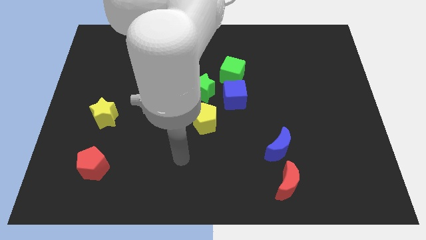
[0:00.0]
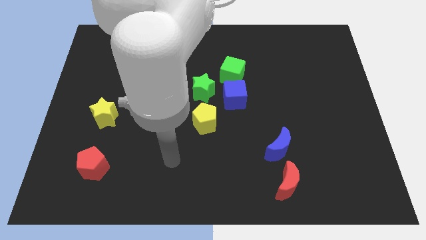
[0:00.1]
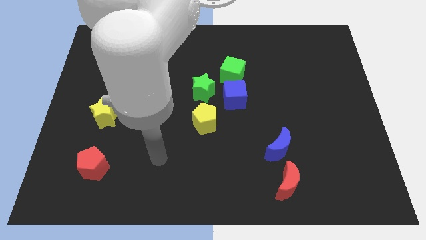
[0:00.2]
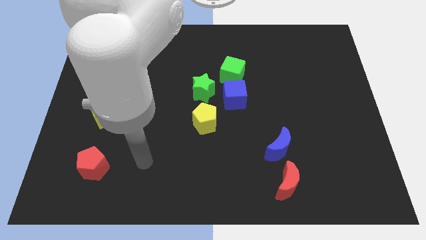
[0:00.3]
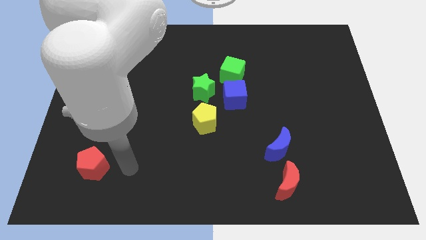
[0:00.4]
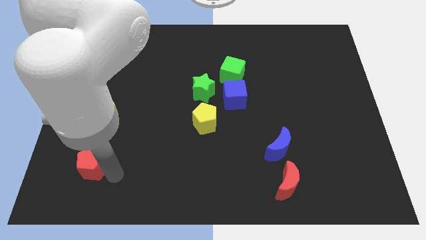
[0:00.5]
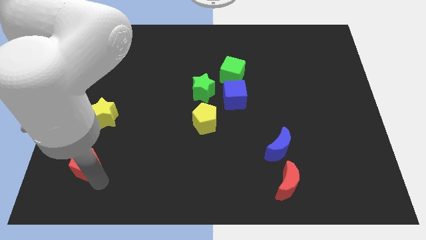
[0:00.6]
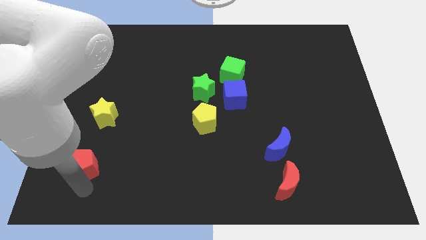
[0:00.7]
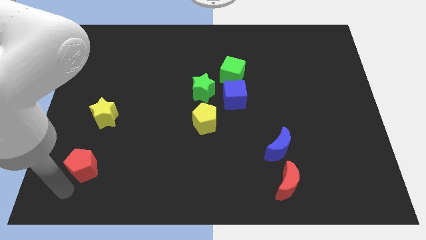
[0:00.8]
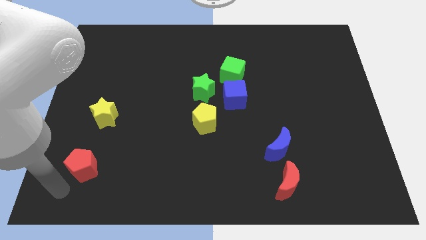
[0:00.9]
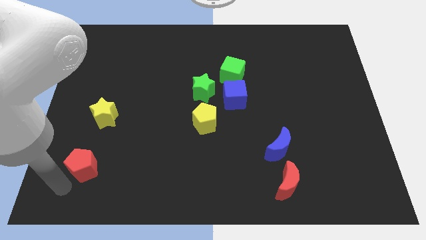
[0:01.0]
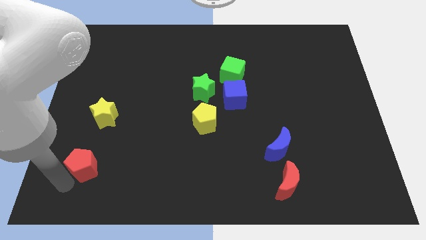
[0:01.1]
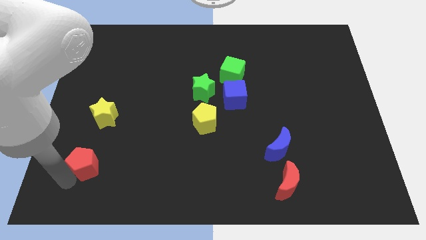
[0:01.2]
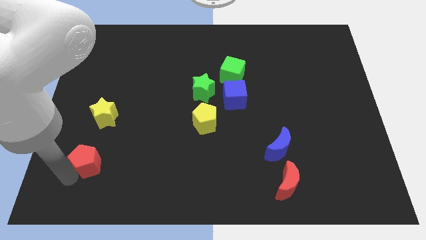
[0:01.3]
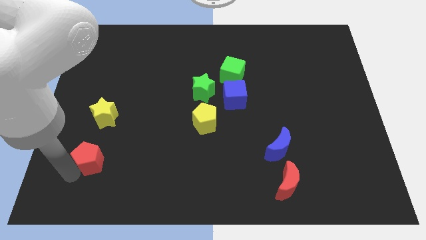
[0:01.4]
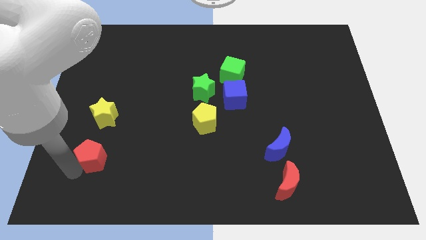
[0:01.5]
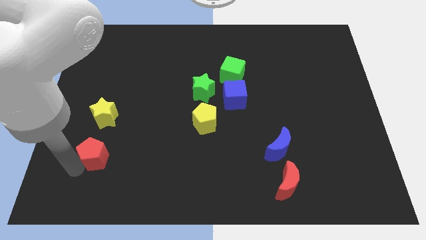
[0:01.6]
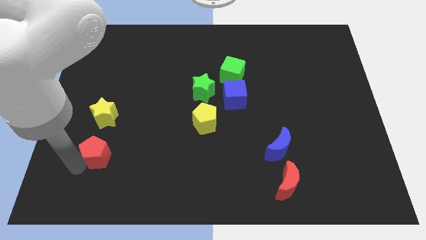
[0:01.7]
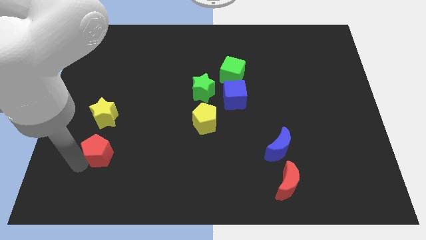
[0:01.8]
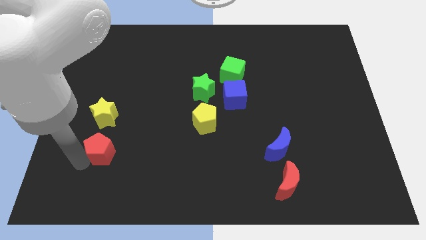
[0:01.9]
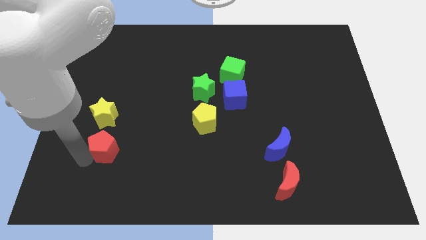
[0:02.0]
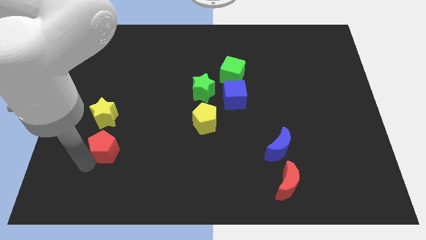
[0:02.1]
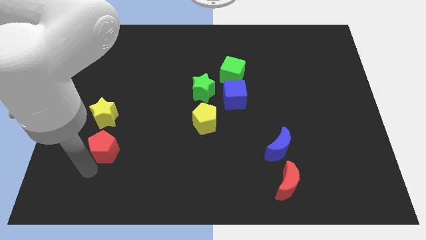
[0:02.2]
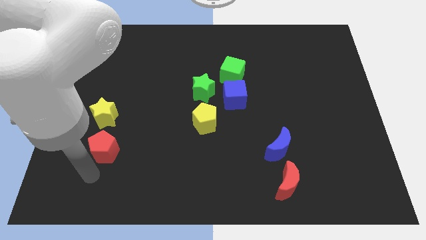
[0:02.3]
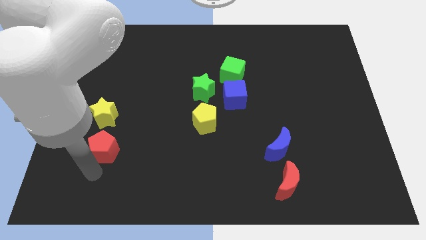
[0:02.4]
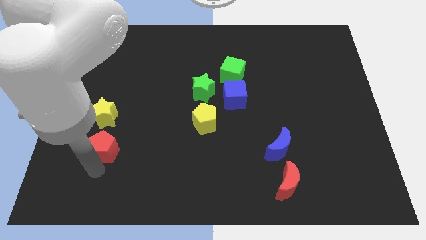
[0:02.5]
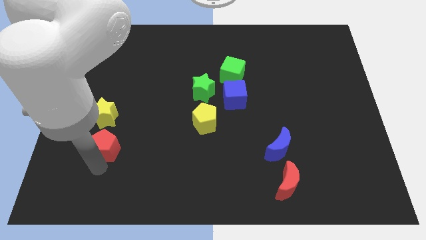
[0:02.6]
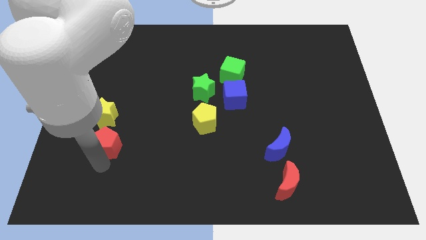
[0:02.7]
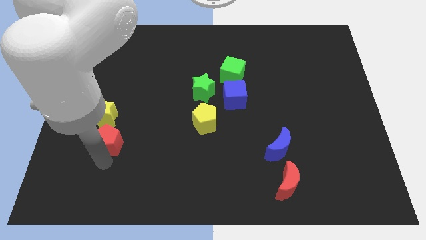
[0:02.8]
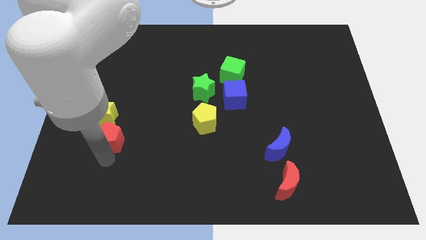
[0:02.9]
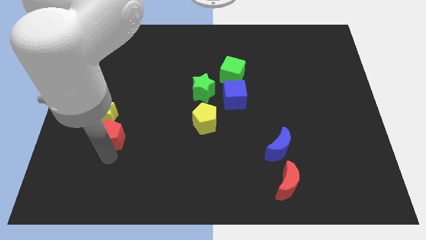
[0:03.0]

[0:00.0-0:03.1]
push the red pentagon up a little

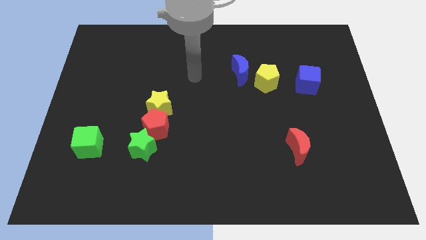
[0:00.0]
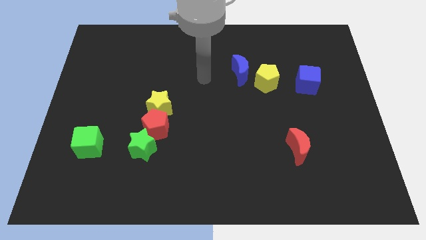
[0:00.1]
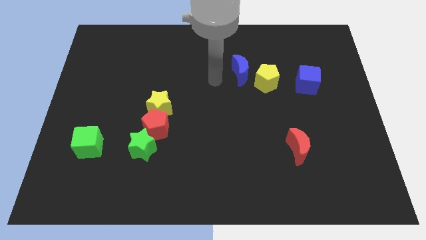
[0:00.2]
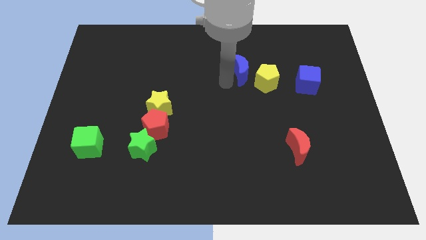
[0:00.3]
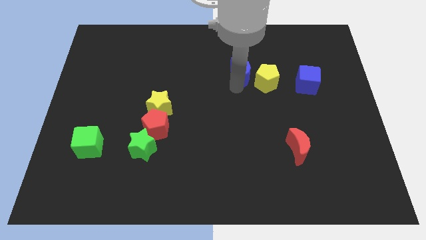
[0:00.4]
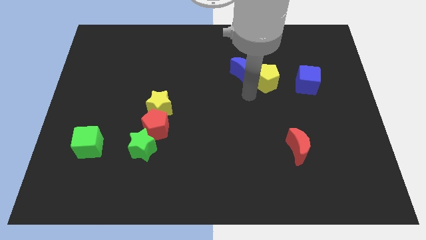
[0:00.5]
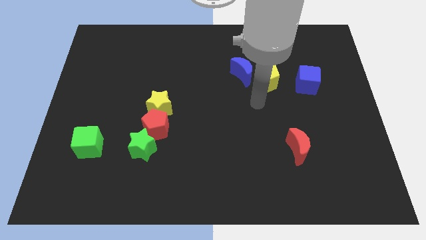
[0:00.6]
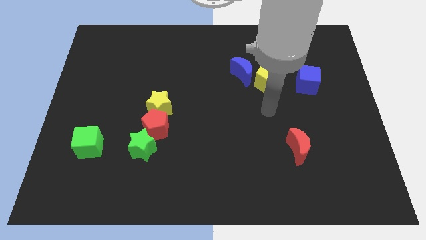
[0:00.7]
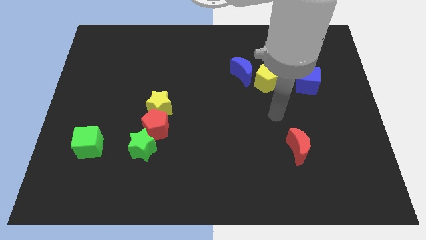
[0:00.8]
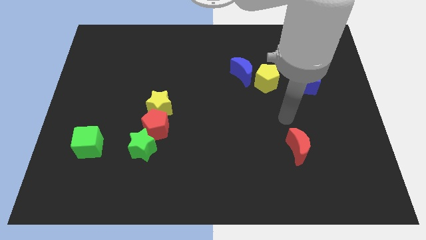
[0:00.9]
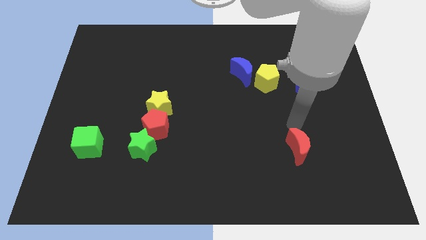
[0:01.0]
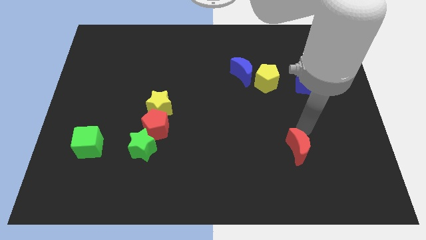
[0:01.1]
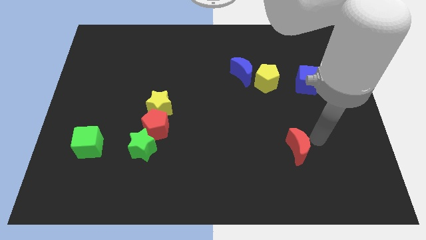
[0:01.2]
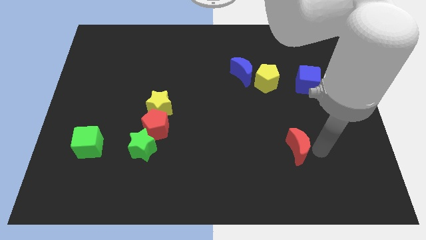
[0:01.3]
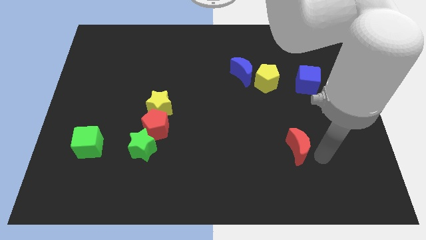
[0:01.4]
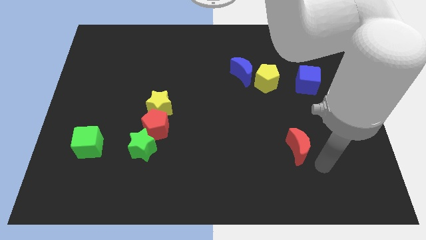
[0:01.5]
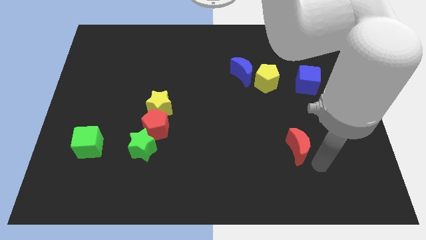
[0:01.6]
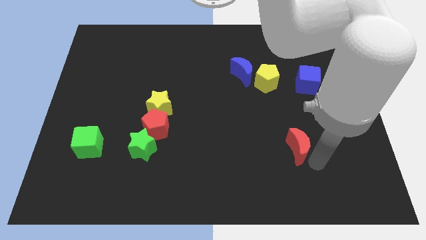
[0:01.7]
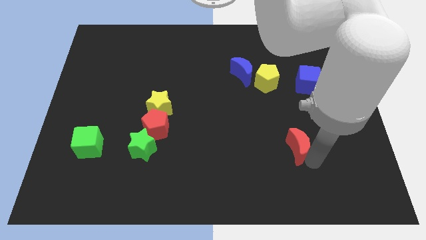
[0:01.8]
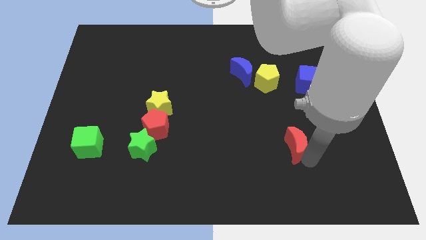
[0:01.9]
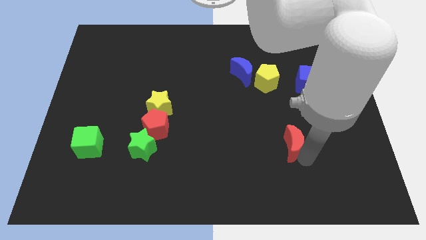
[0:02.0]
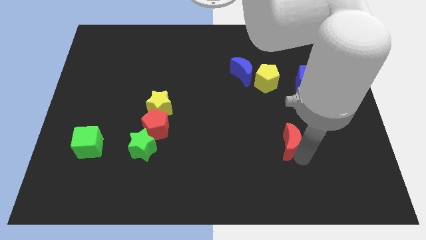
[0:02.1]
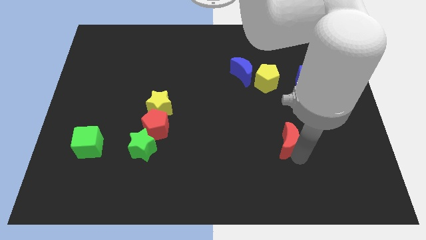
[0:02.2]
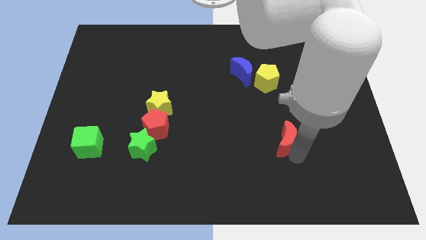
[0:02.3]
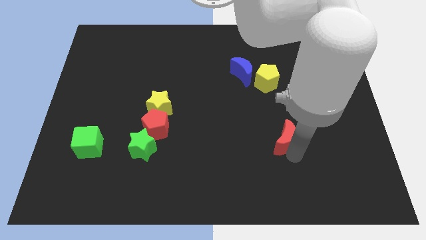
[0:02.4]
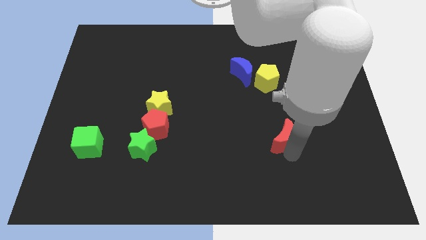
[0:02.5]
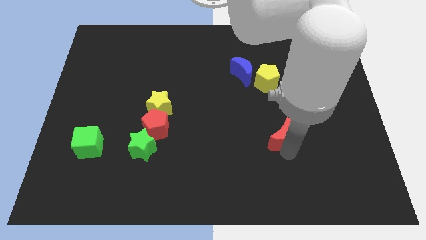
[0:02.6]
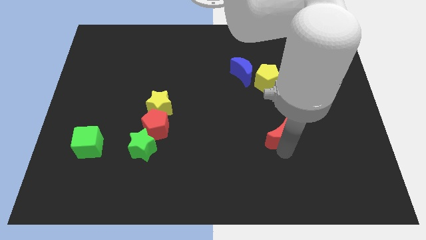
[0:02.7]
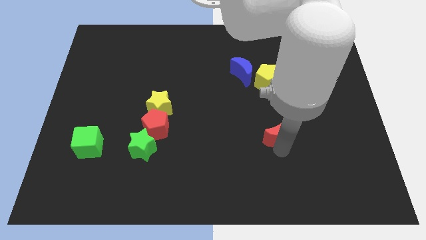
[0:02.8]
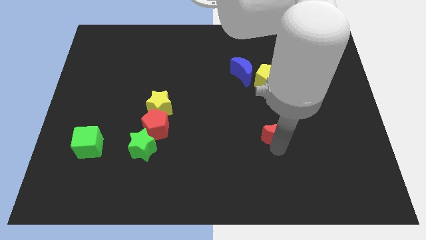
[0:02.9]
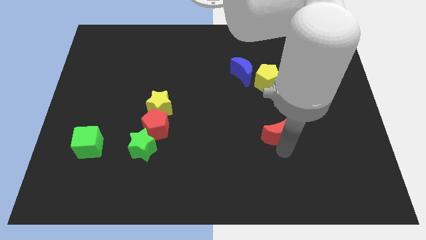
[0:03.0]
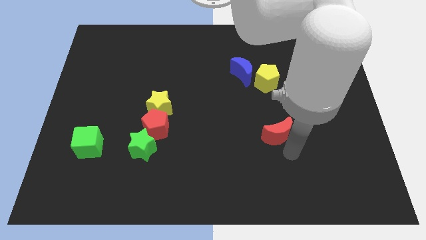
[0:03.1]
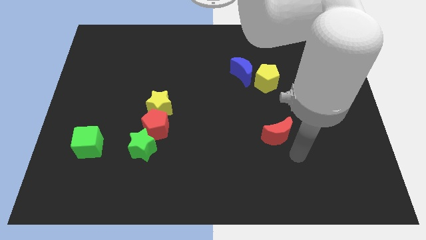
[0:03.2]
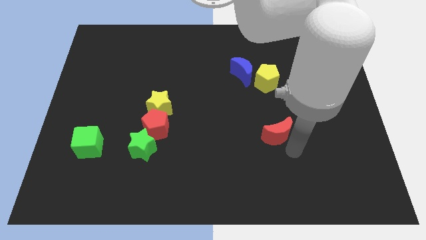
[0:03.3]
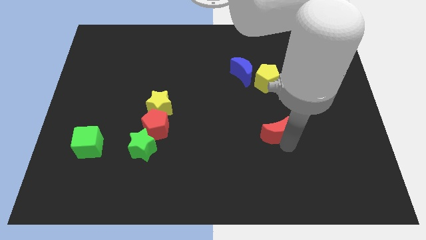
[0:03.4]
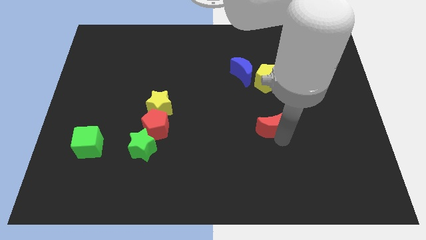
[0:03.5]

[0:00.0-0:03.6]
slightly push the red moon upwards and to the left diagonally

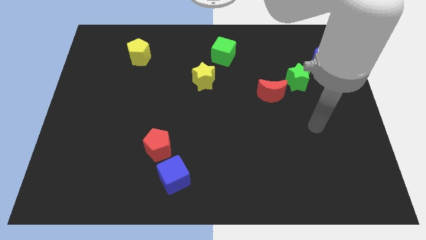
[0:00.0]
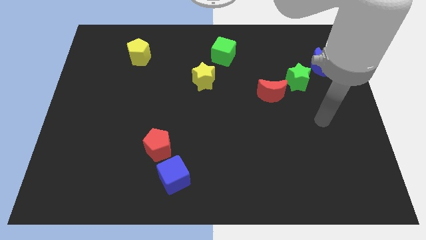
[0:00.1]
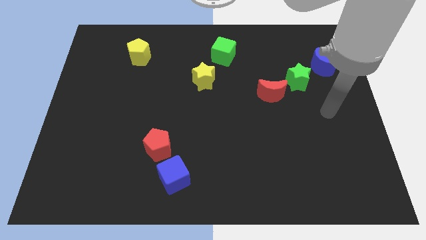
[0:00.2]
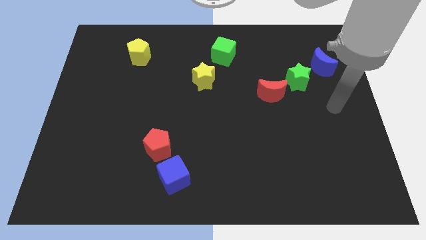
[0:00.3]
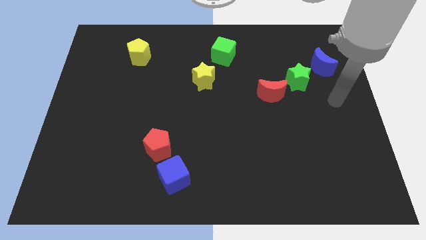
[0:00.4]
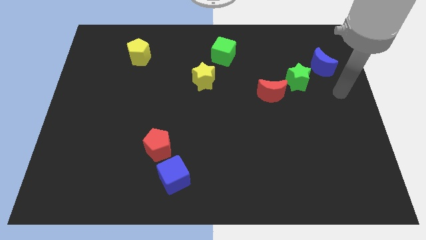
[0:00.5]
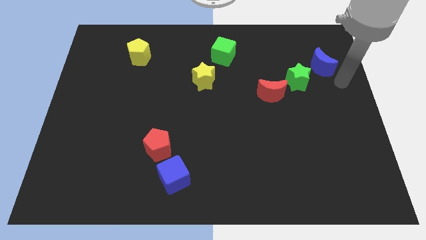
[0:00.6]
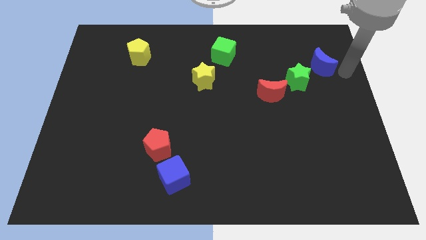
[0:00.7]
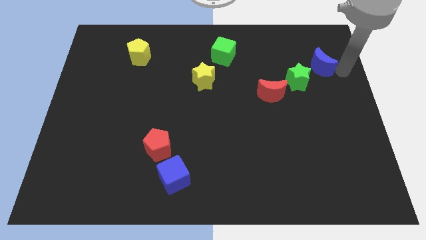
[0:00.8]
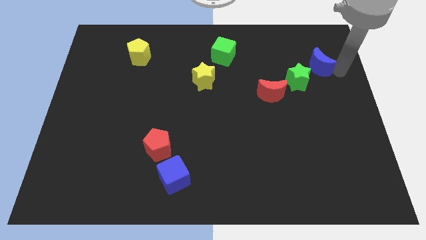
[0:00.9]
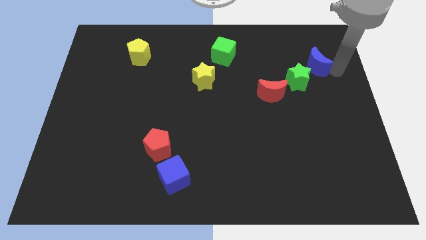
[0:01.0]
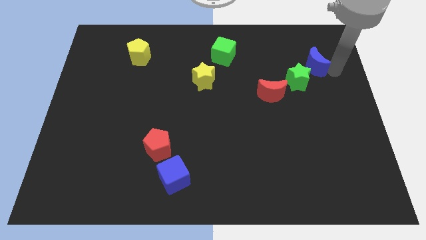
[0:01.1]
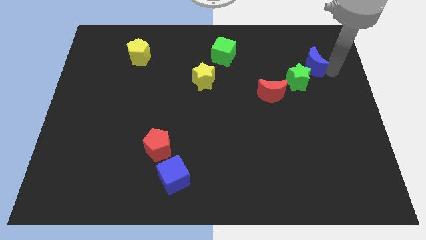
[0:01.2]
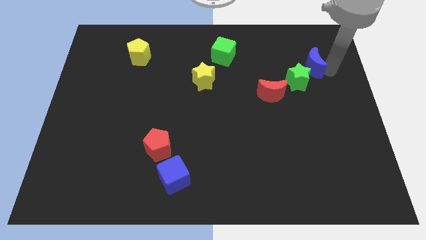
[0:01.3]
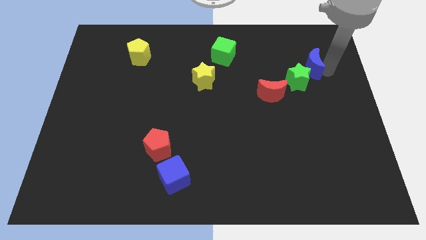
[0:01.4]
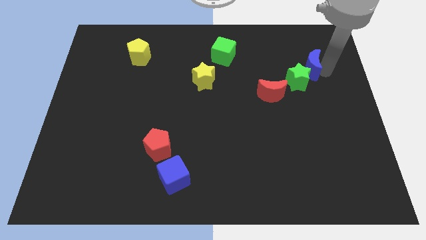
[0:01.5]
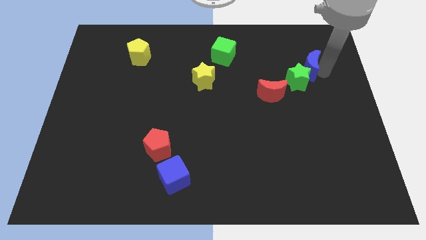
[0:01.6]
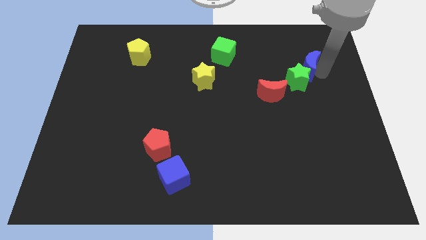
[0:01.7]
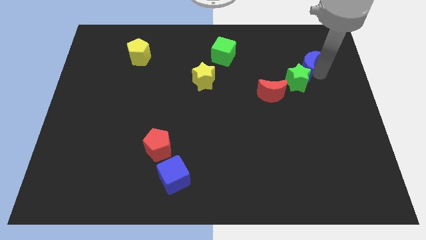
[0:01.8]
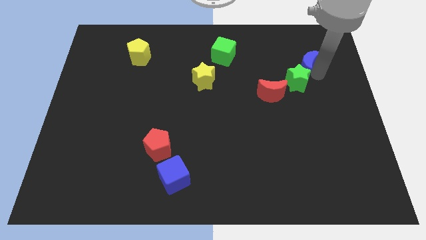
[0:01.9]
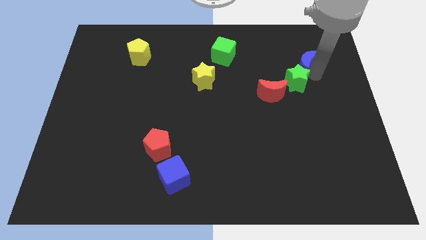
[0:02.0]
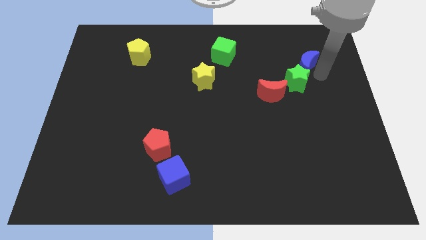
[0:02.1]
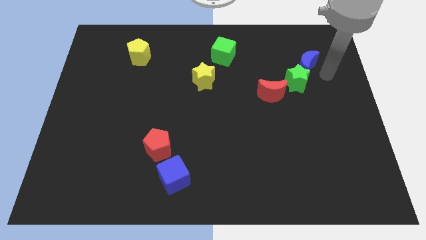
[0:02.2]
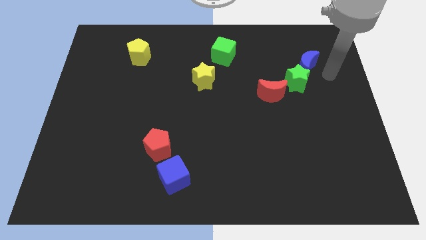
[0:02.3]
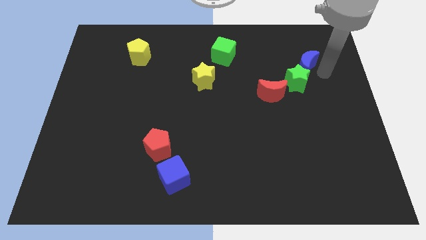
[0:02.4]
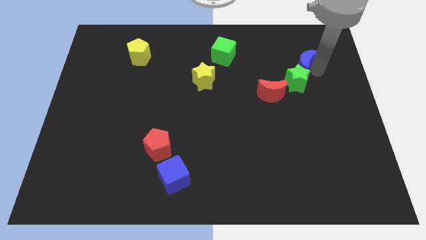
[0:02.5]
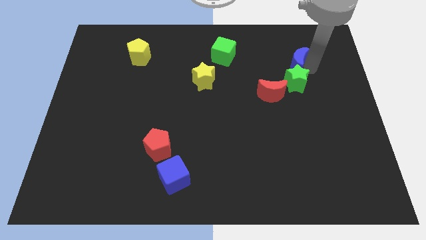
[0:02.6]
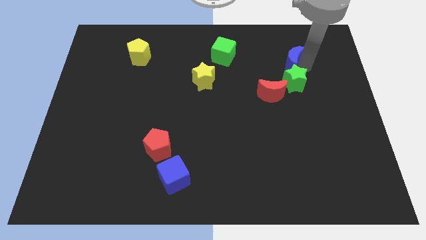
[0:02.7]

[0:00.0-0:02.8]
push the blue moon somewhat to the left
